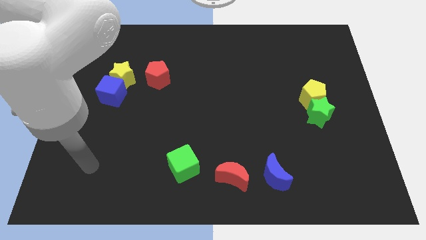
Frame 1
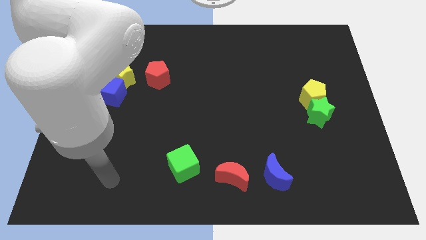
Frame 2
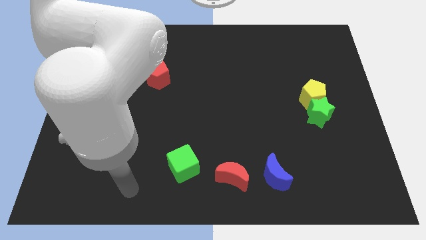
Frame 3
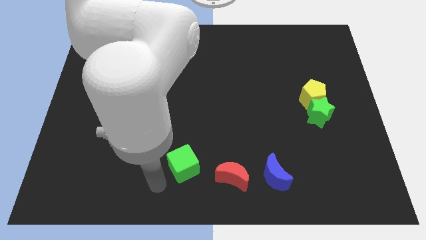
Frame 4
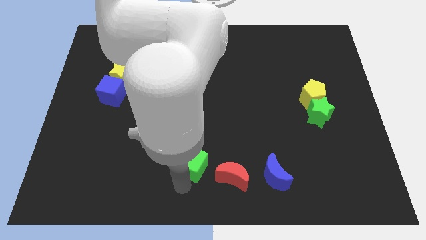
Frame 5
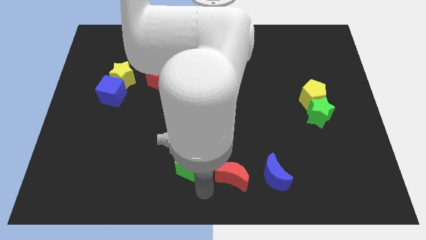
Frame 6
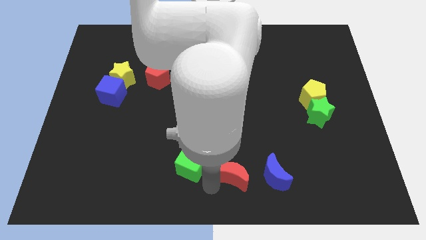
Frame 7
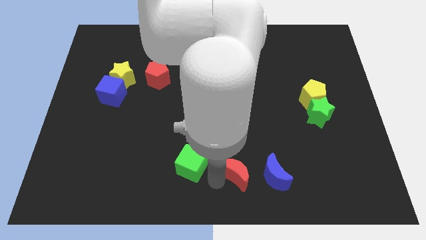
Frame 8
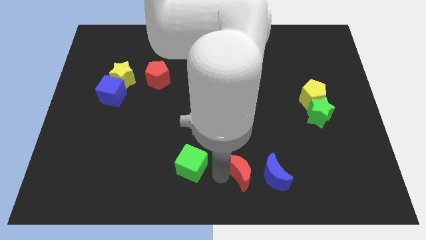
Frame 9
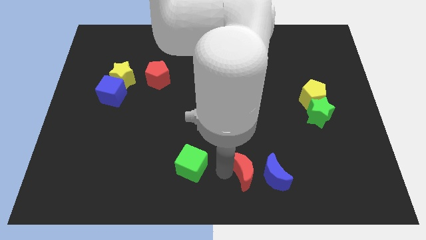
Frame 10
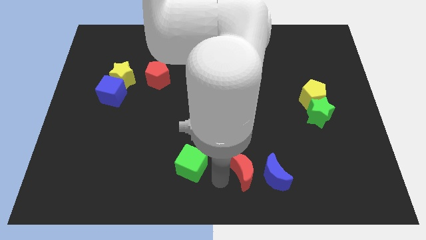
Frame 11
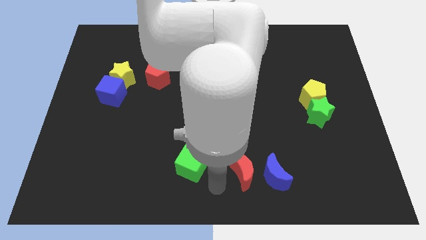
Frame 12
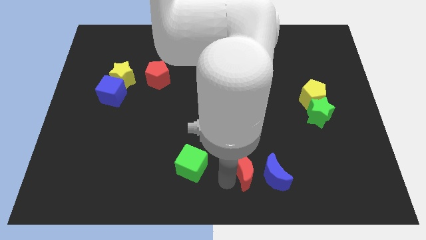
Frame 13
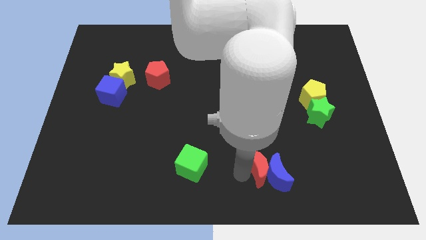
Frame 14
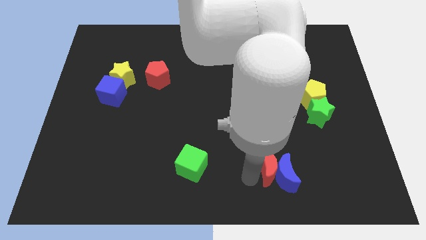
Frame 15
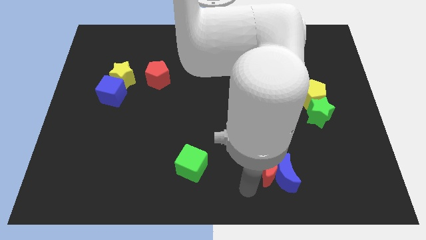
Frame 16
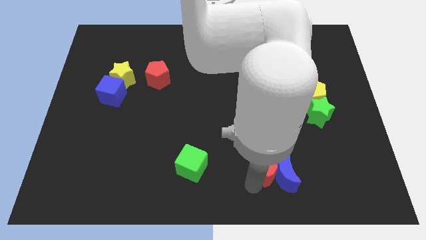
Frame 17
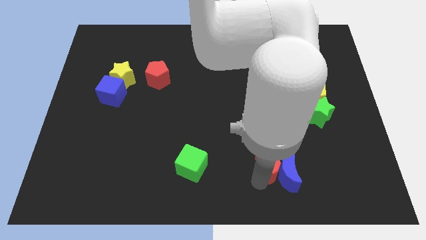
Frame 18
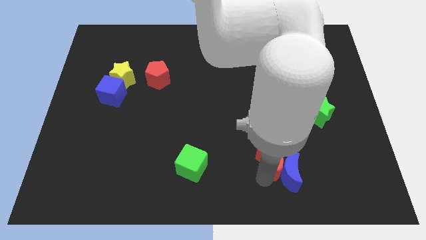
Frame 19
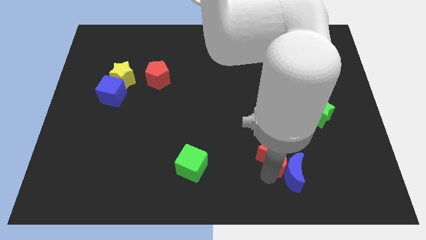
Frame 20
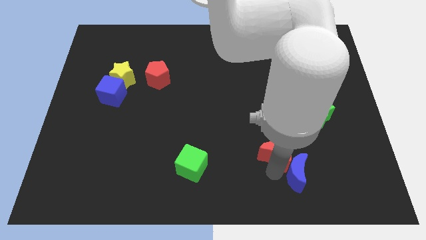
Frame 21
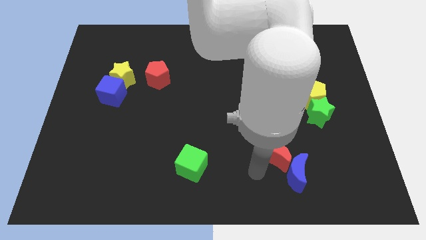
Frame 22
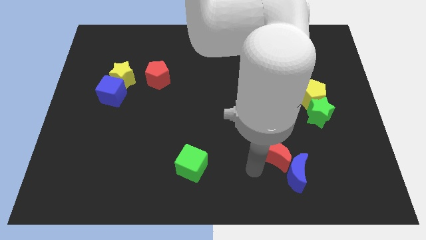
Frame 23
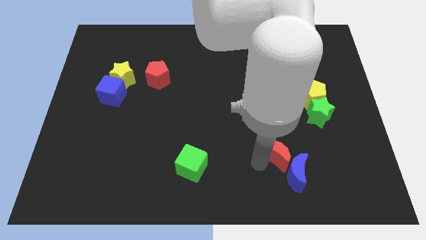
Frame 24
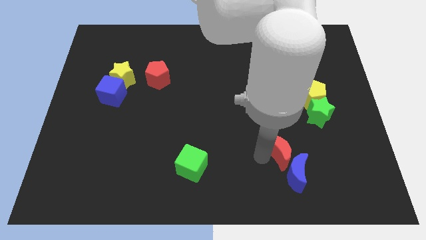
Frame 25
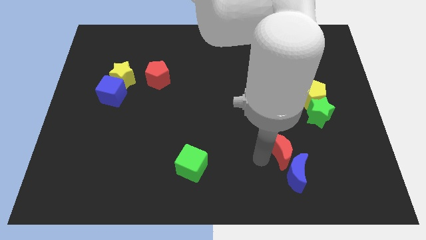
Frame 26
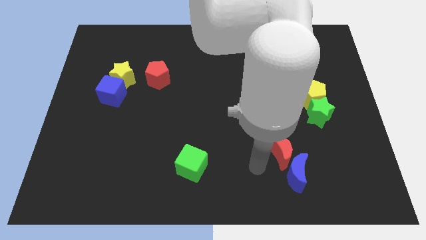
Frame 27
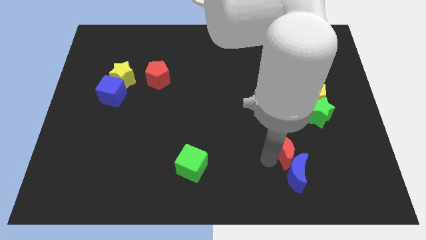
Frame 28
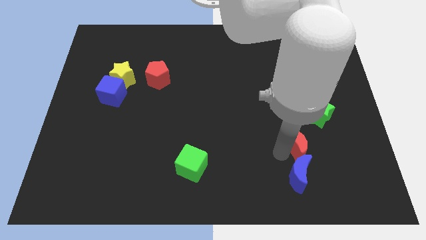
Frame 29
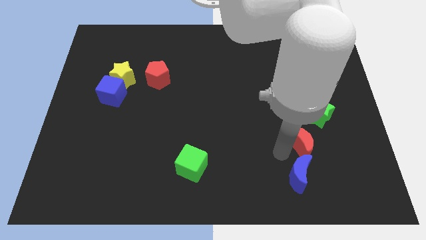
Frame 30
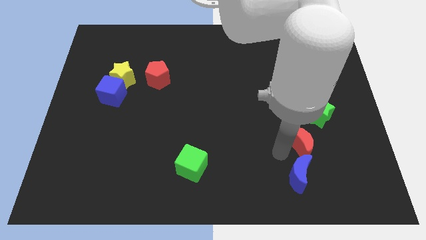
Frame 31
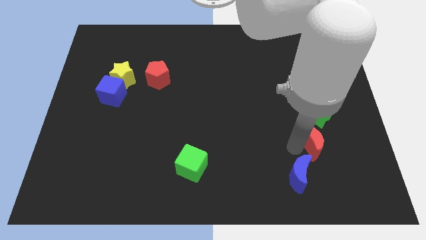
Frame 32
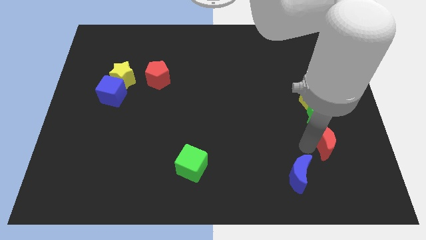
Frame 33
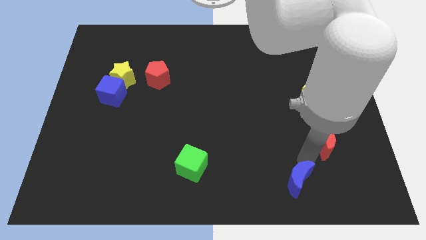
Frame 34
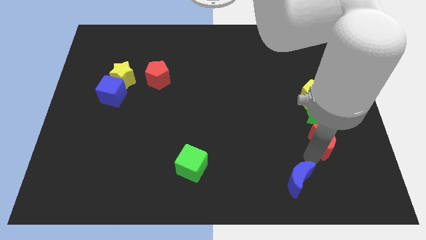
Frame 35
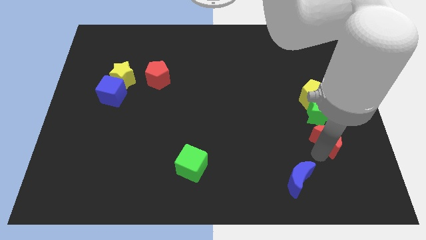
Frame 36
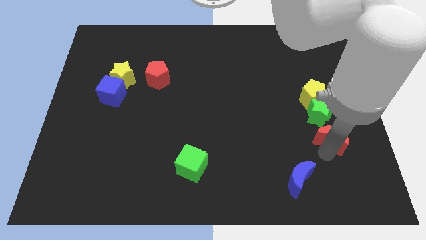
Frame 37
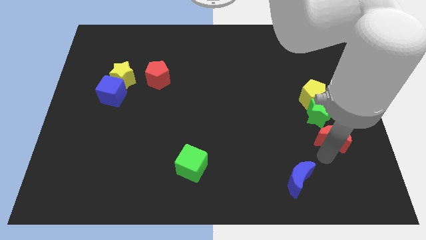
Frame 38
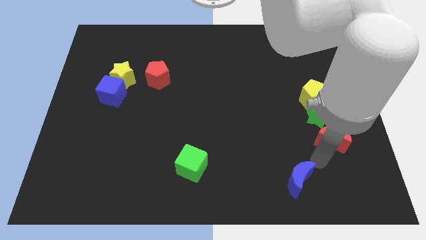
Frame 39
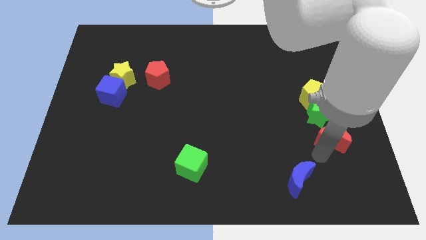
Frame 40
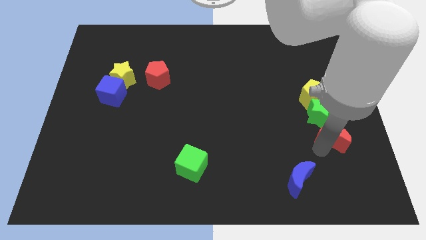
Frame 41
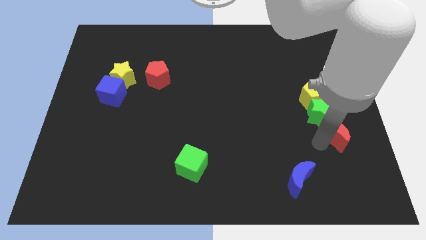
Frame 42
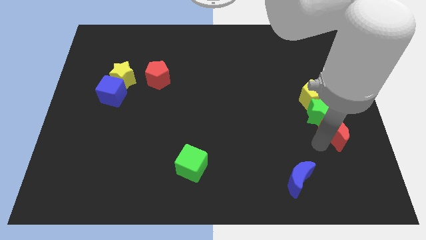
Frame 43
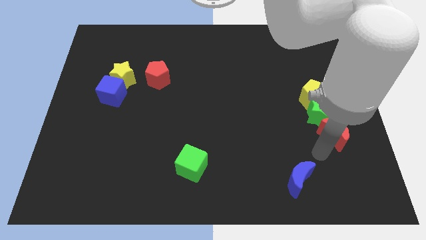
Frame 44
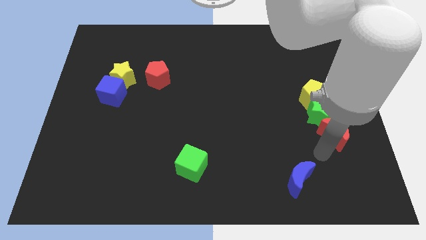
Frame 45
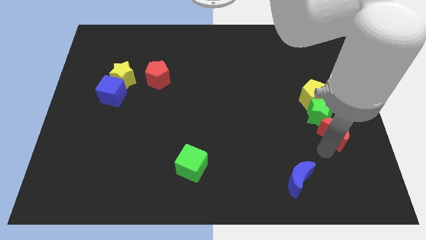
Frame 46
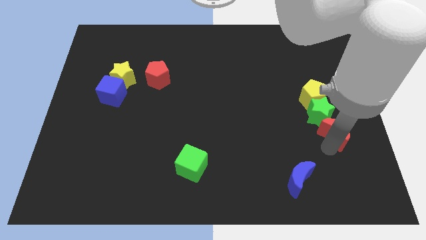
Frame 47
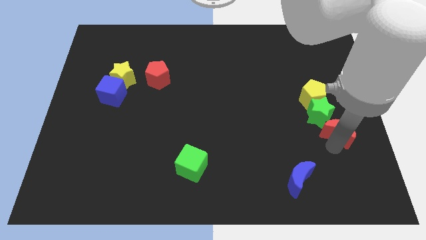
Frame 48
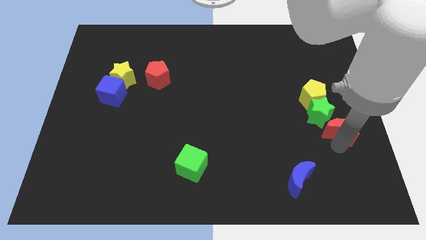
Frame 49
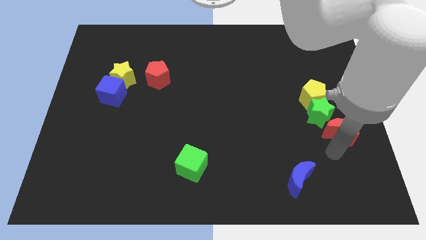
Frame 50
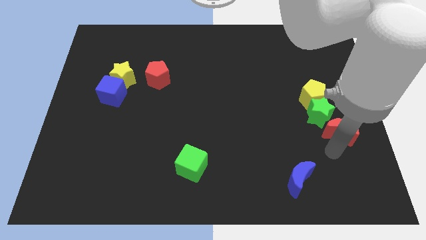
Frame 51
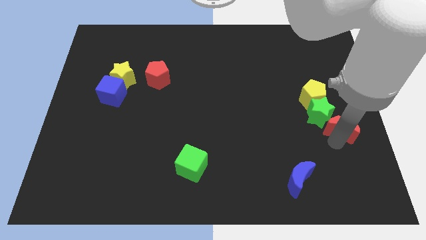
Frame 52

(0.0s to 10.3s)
put the red moon to the right side

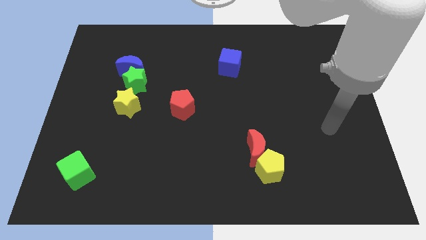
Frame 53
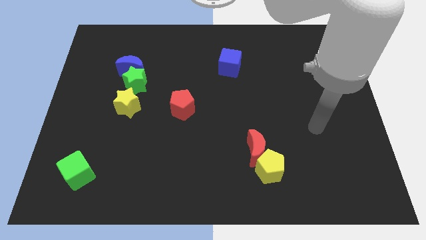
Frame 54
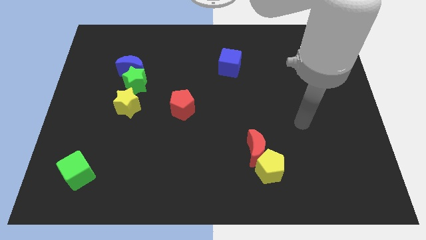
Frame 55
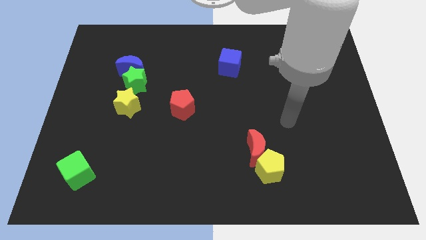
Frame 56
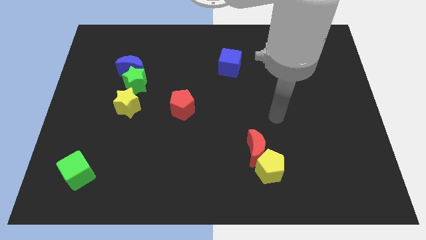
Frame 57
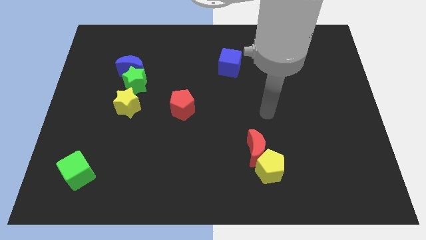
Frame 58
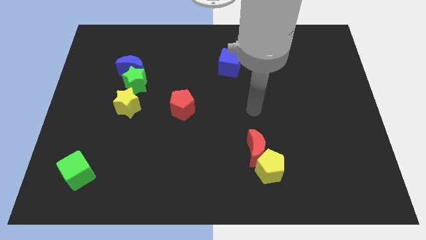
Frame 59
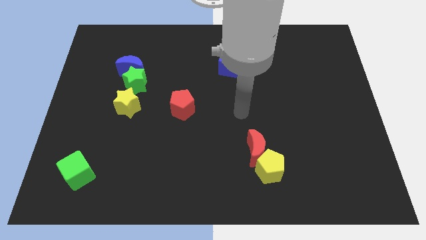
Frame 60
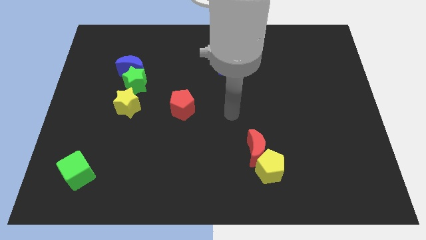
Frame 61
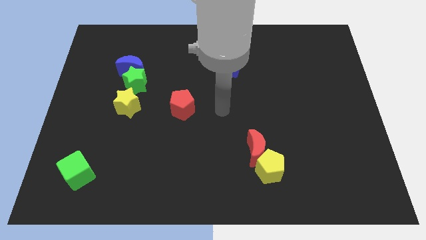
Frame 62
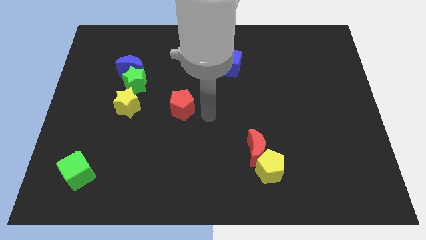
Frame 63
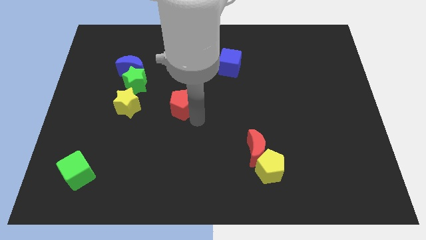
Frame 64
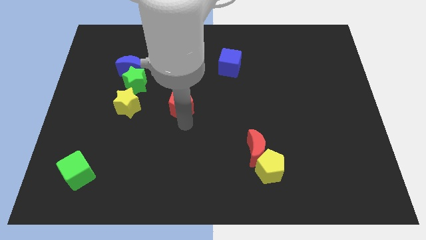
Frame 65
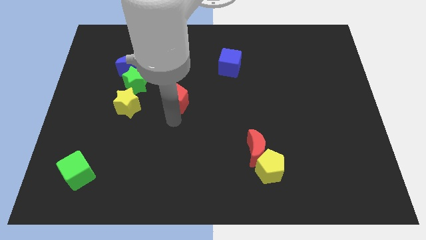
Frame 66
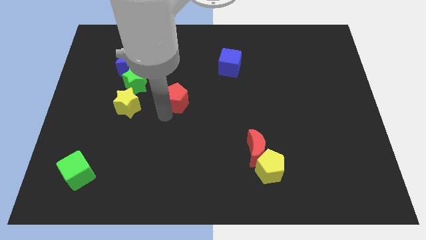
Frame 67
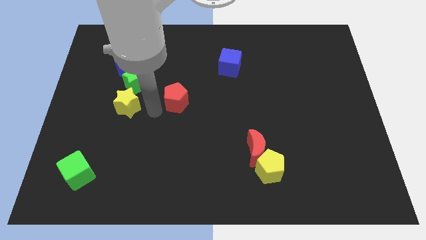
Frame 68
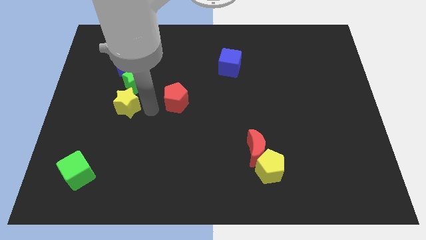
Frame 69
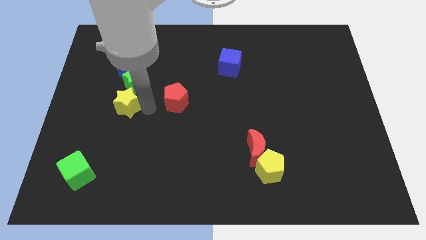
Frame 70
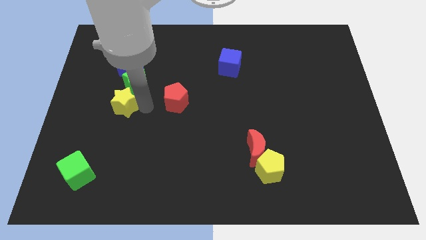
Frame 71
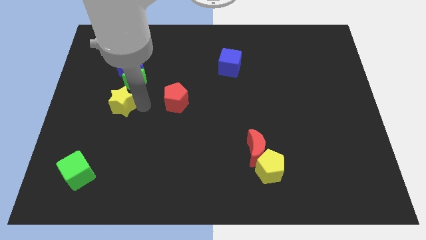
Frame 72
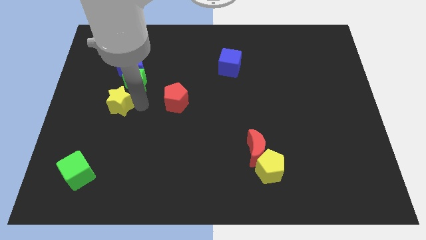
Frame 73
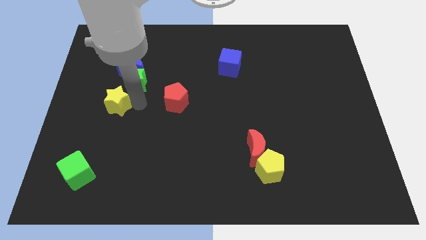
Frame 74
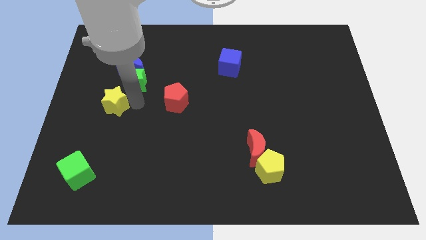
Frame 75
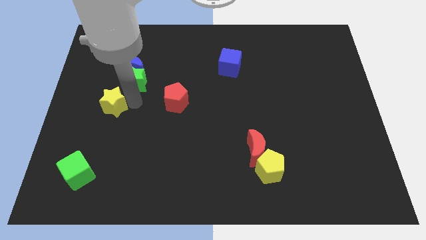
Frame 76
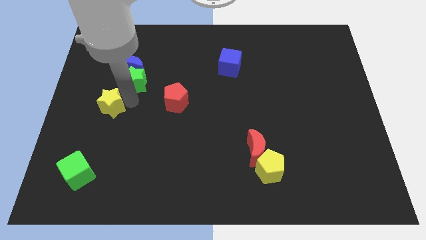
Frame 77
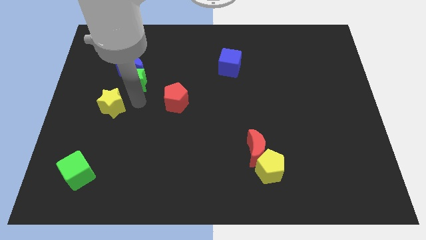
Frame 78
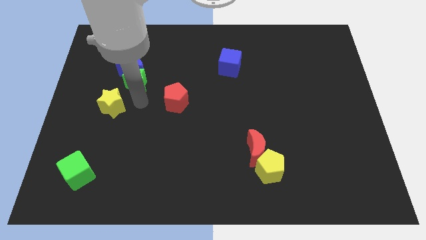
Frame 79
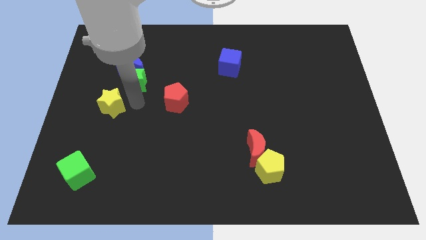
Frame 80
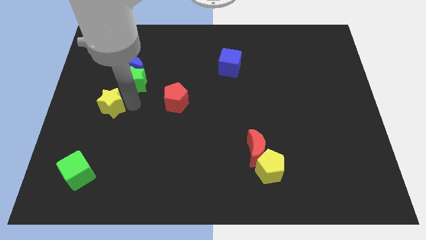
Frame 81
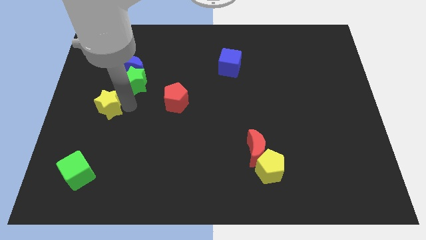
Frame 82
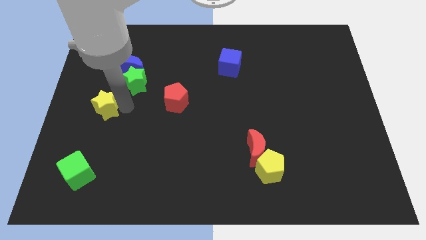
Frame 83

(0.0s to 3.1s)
put the yellow star to the left side
